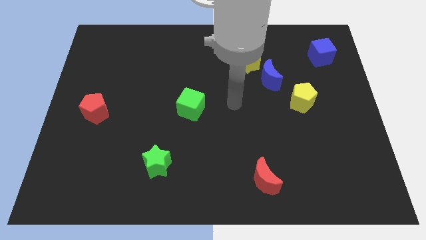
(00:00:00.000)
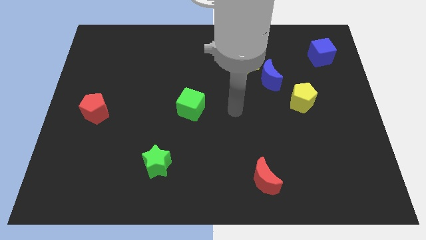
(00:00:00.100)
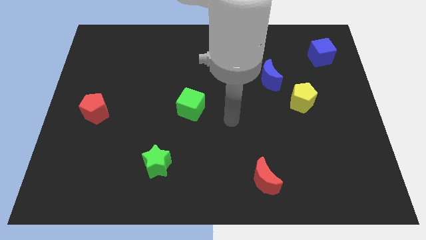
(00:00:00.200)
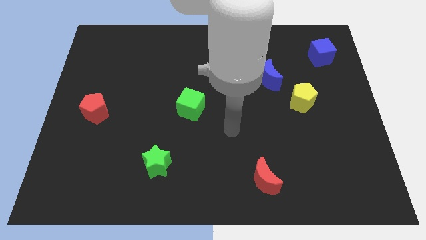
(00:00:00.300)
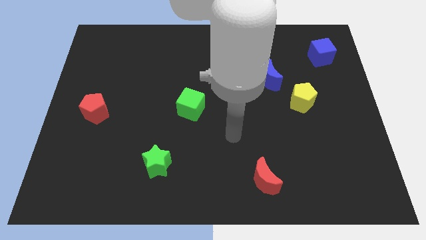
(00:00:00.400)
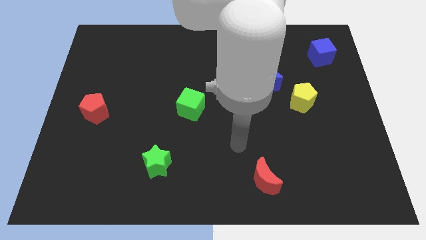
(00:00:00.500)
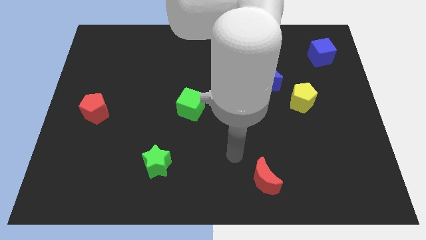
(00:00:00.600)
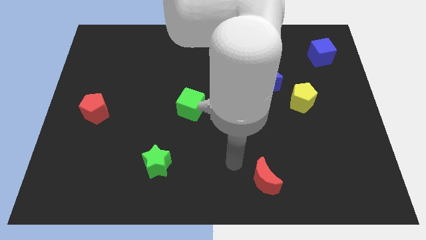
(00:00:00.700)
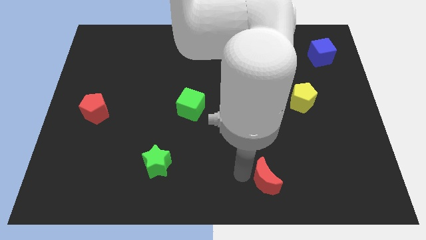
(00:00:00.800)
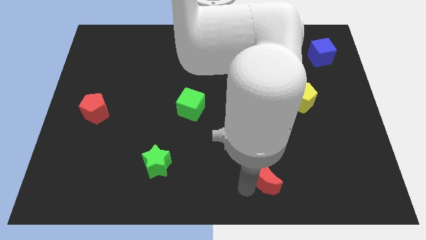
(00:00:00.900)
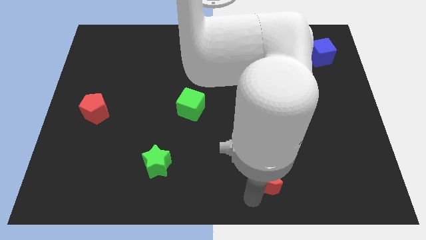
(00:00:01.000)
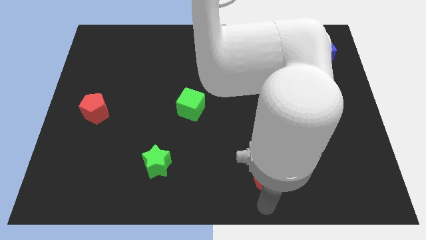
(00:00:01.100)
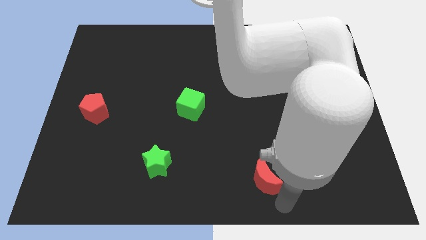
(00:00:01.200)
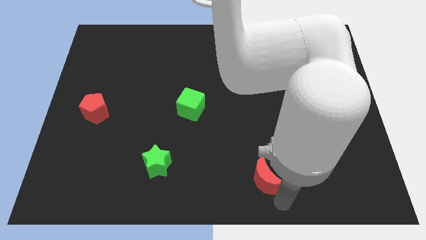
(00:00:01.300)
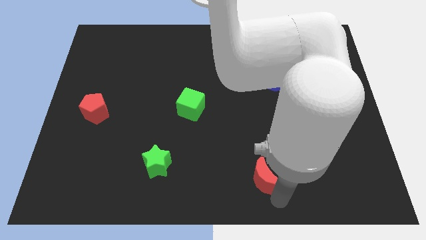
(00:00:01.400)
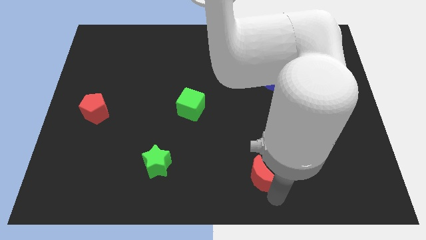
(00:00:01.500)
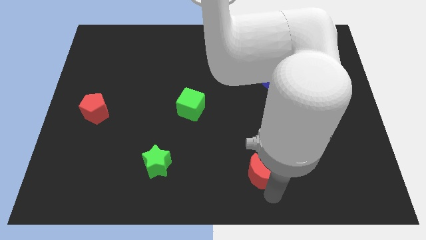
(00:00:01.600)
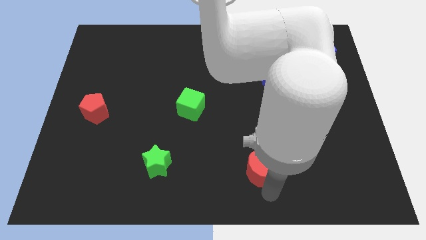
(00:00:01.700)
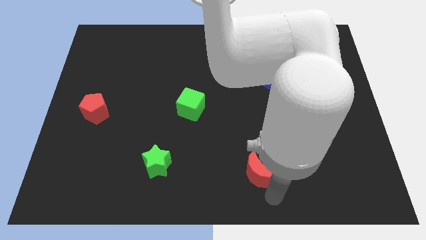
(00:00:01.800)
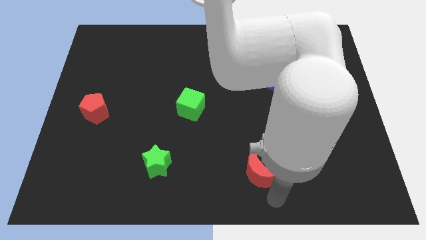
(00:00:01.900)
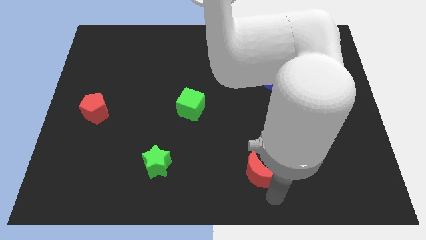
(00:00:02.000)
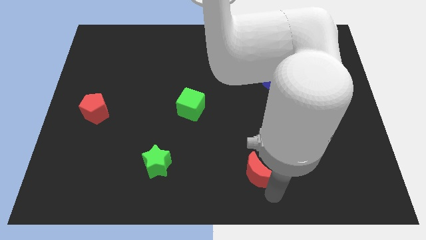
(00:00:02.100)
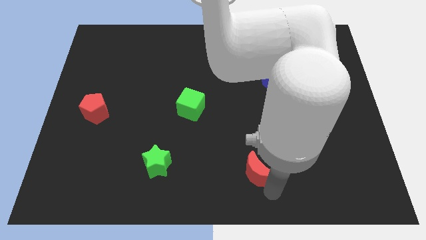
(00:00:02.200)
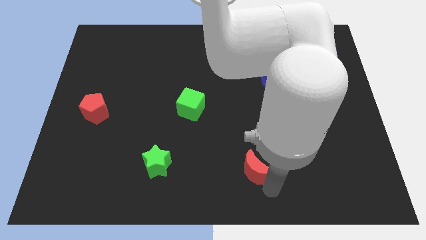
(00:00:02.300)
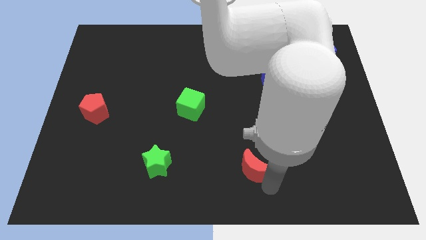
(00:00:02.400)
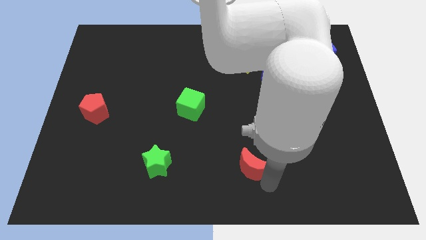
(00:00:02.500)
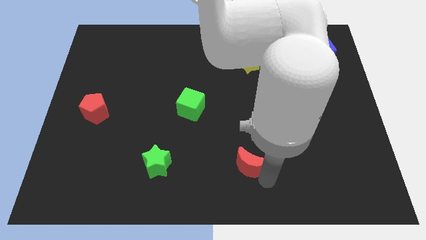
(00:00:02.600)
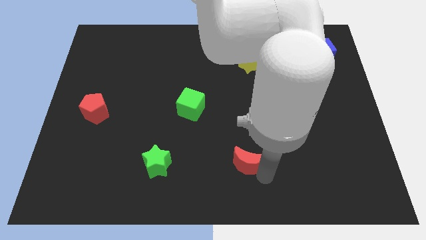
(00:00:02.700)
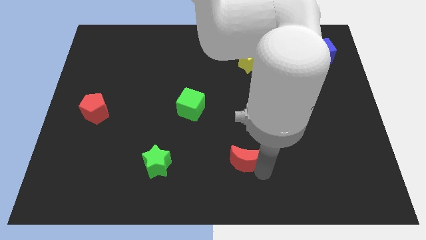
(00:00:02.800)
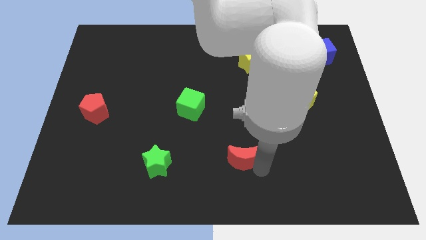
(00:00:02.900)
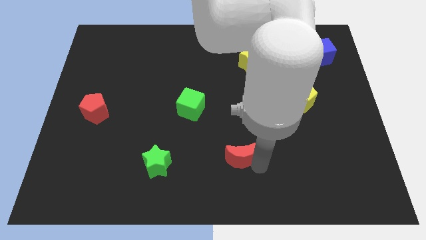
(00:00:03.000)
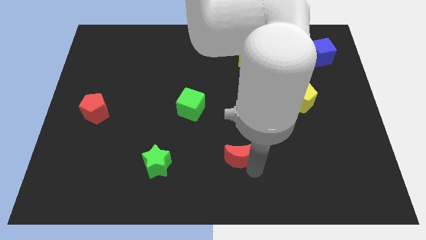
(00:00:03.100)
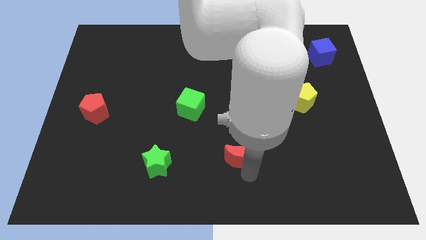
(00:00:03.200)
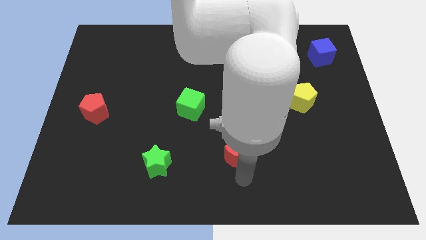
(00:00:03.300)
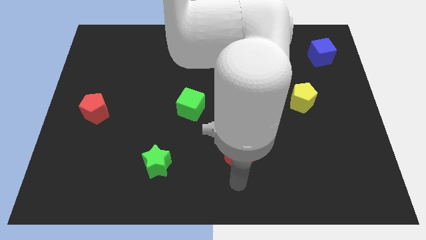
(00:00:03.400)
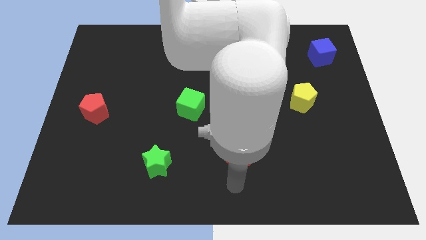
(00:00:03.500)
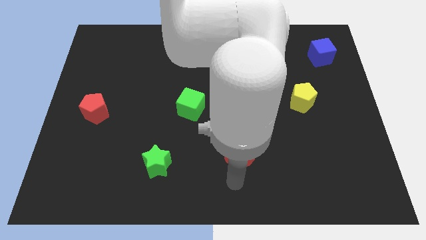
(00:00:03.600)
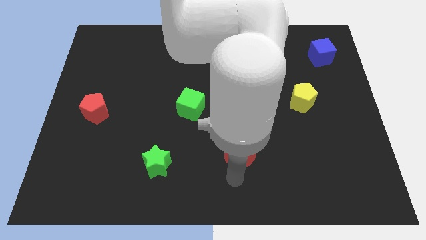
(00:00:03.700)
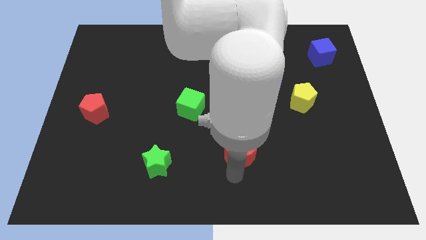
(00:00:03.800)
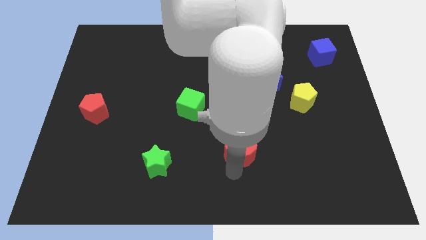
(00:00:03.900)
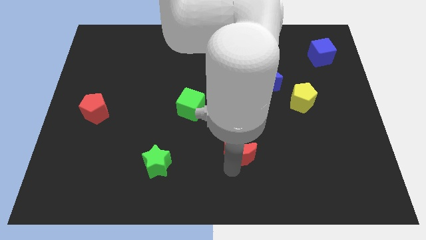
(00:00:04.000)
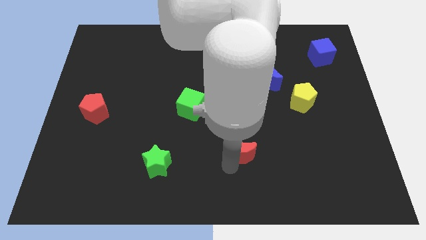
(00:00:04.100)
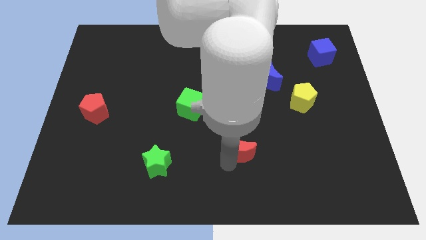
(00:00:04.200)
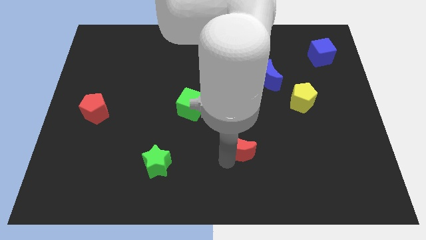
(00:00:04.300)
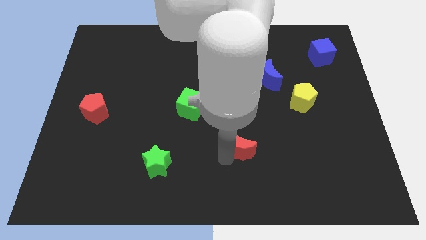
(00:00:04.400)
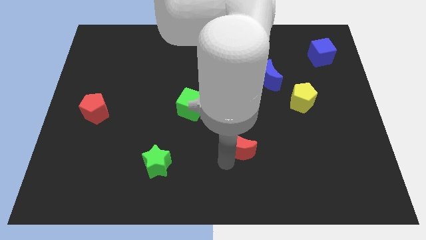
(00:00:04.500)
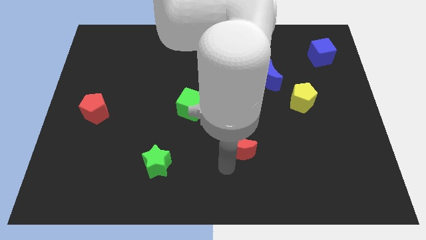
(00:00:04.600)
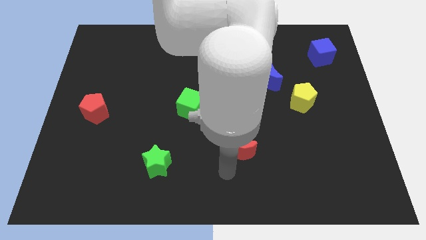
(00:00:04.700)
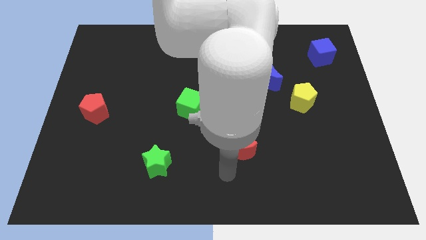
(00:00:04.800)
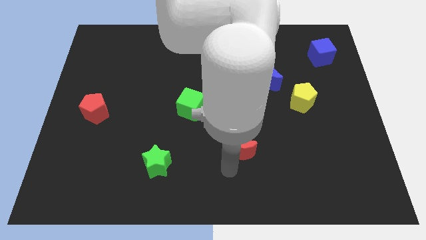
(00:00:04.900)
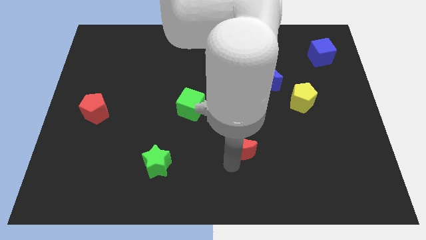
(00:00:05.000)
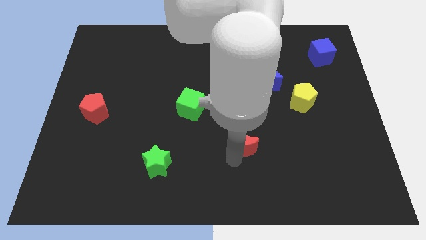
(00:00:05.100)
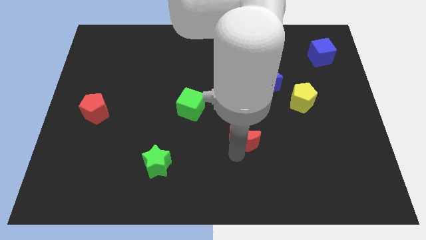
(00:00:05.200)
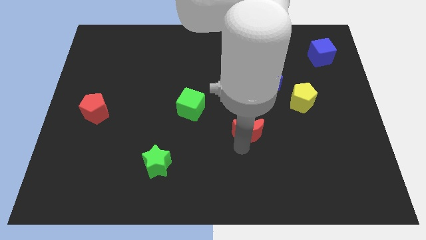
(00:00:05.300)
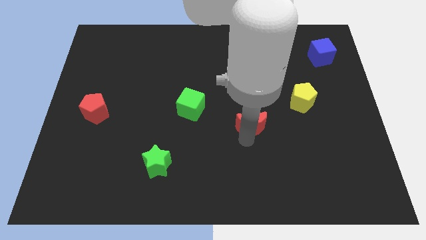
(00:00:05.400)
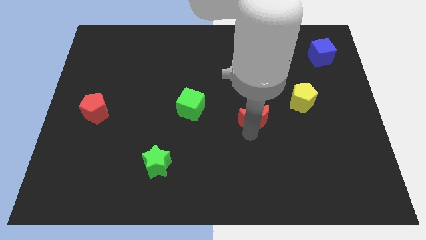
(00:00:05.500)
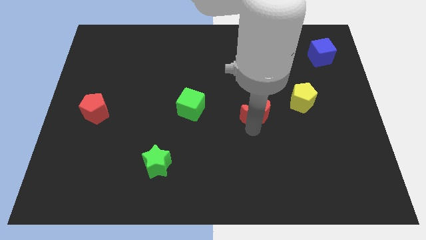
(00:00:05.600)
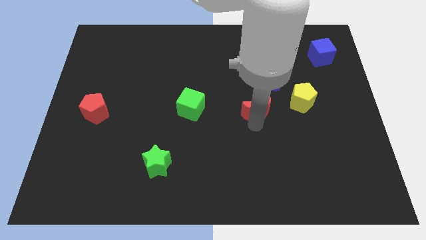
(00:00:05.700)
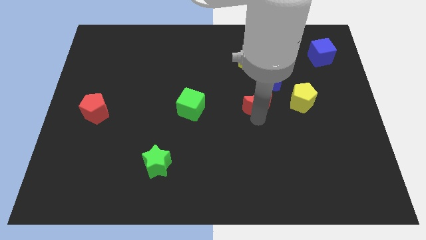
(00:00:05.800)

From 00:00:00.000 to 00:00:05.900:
move the red moon to the bottom left of the blue moon

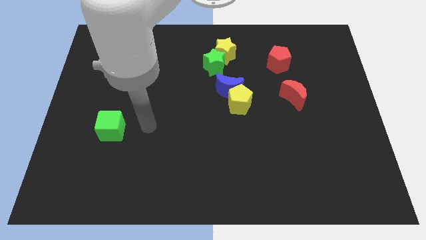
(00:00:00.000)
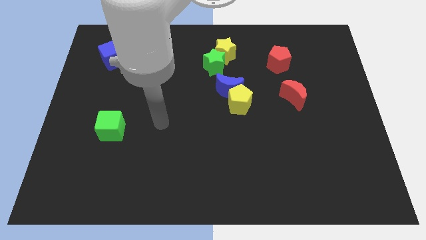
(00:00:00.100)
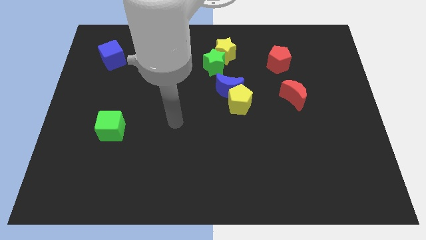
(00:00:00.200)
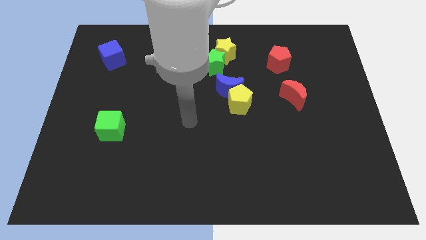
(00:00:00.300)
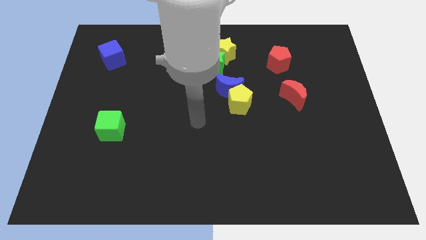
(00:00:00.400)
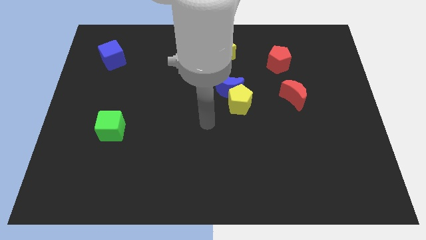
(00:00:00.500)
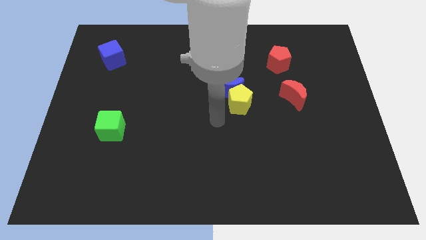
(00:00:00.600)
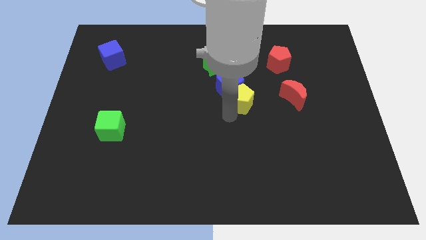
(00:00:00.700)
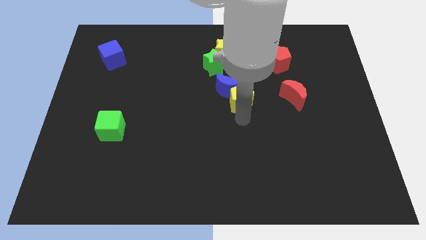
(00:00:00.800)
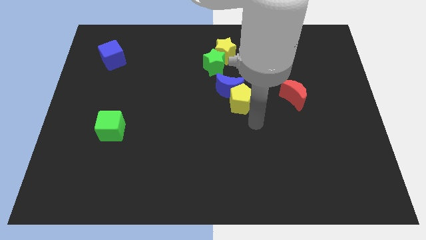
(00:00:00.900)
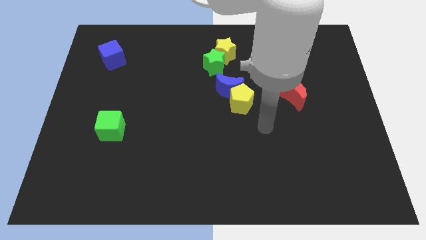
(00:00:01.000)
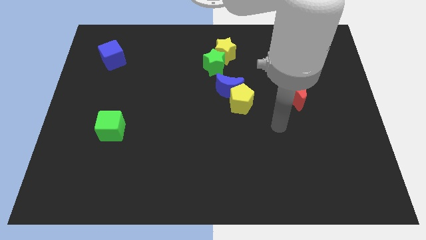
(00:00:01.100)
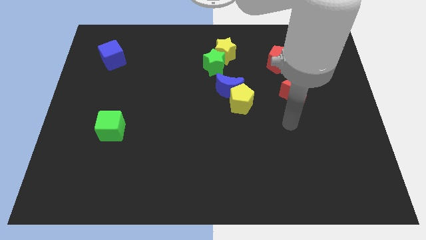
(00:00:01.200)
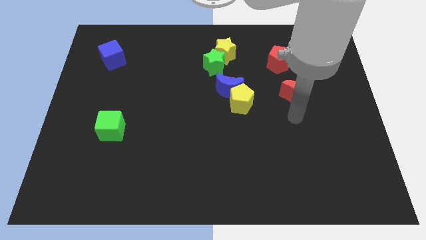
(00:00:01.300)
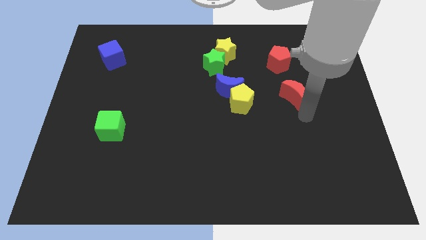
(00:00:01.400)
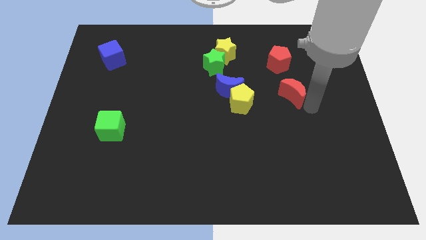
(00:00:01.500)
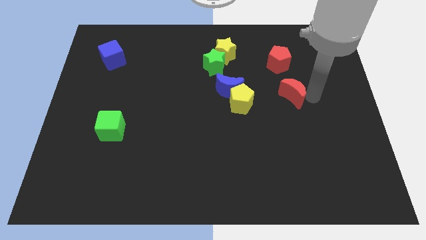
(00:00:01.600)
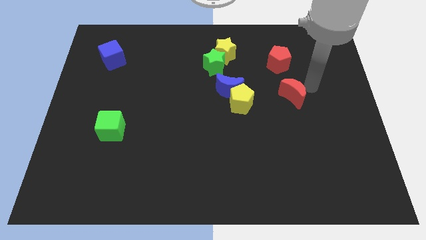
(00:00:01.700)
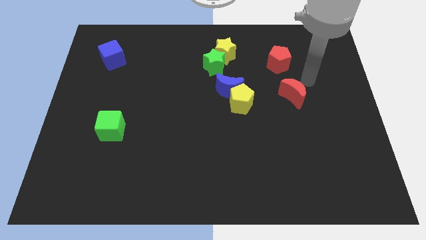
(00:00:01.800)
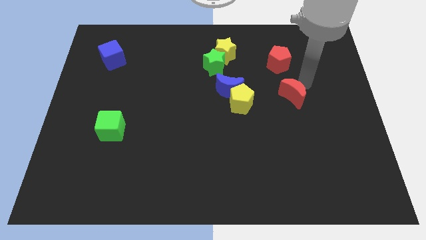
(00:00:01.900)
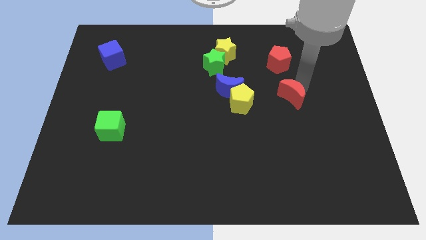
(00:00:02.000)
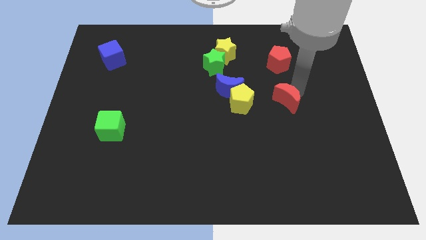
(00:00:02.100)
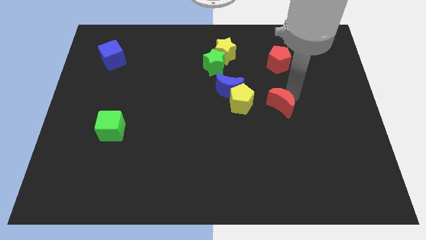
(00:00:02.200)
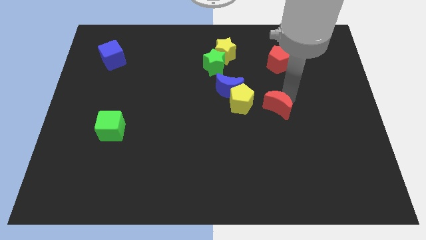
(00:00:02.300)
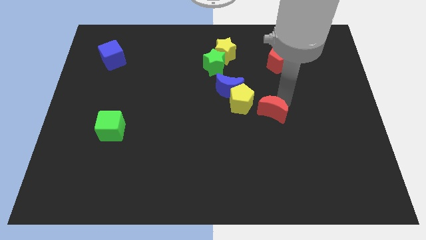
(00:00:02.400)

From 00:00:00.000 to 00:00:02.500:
put the red moon to the bottom right side of the yellow pentagon

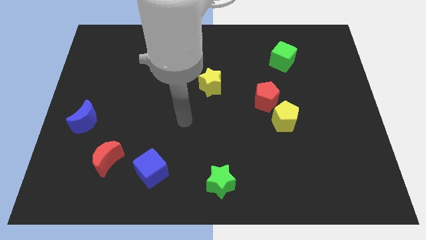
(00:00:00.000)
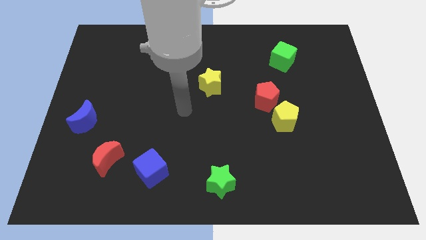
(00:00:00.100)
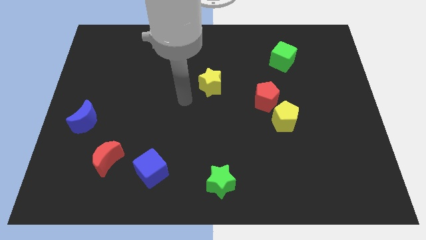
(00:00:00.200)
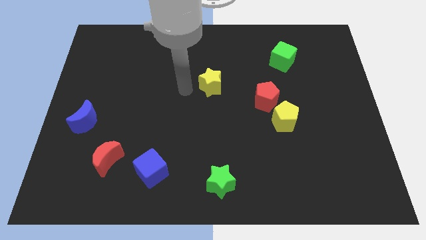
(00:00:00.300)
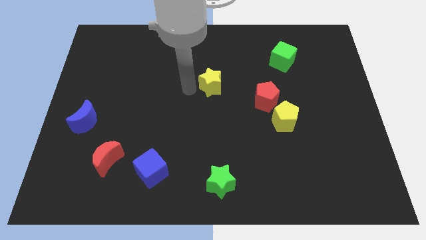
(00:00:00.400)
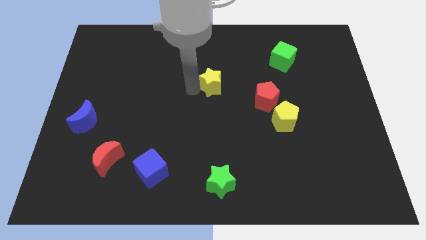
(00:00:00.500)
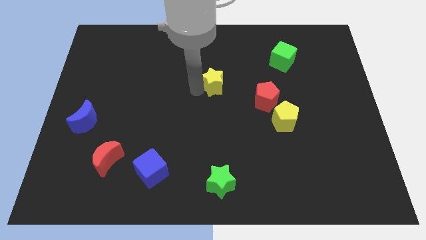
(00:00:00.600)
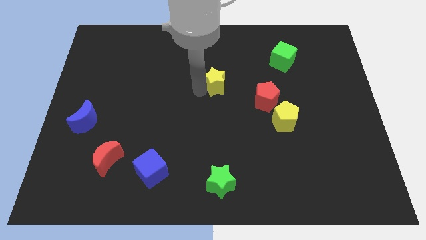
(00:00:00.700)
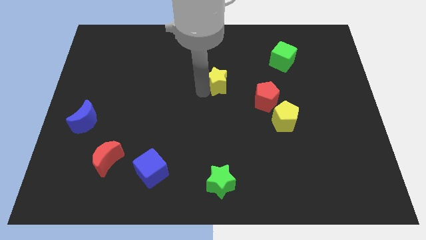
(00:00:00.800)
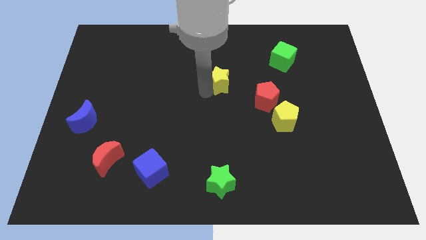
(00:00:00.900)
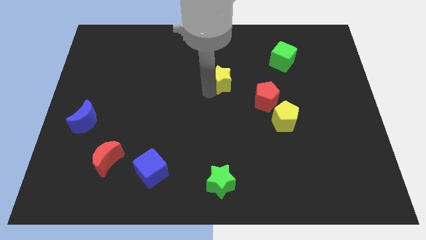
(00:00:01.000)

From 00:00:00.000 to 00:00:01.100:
move the yellow star diagonally up and to the left of the red pentagon
